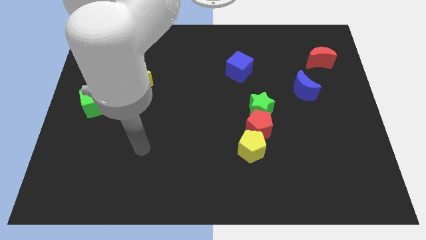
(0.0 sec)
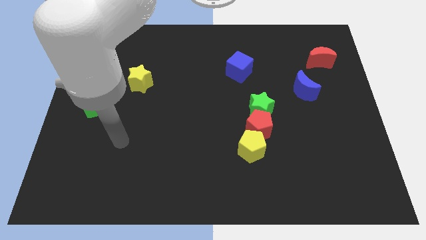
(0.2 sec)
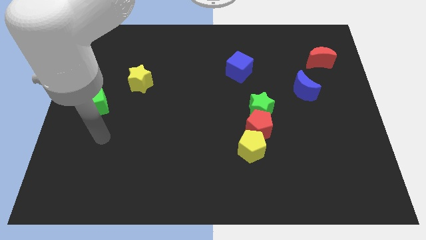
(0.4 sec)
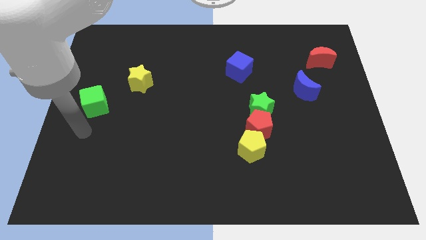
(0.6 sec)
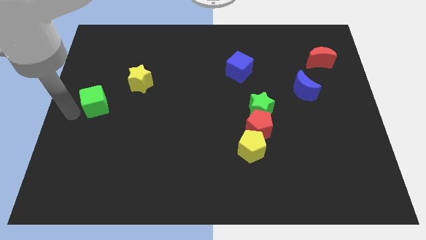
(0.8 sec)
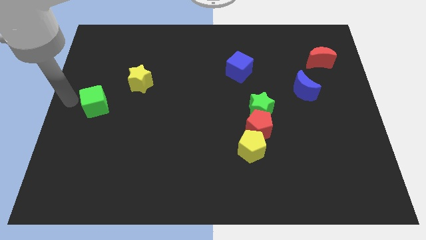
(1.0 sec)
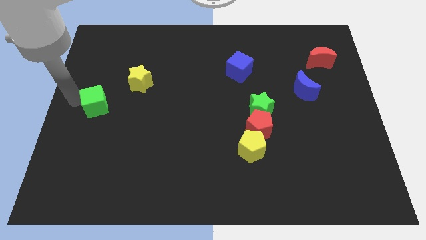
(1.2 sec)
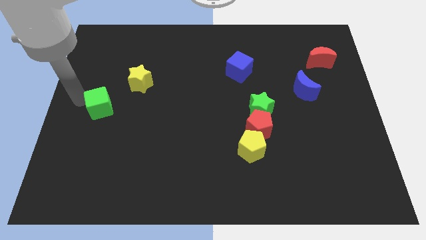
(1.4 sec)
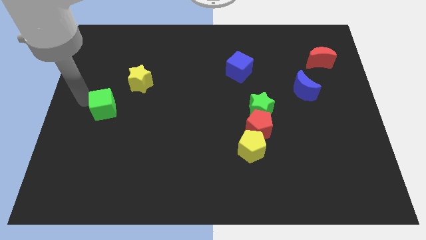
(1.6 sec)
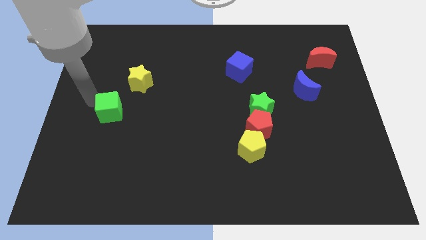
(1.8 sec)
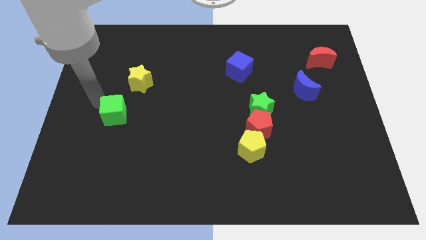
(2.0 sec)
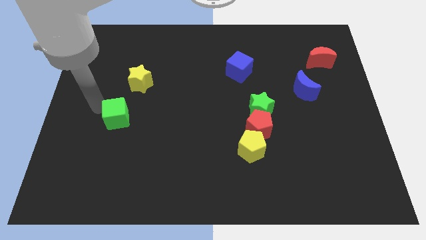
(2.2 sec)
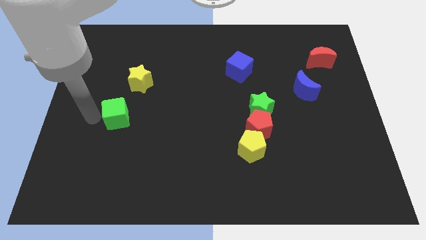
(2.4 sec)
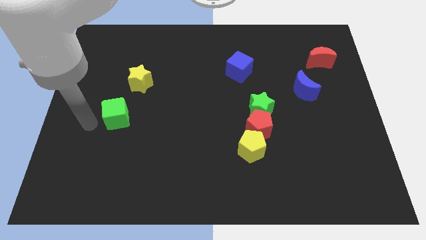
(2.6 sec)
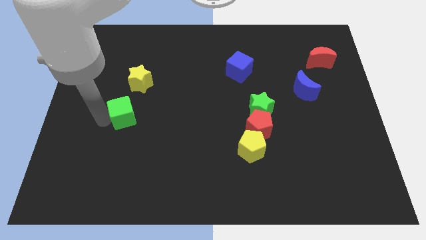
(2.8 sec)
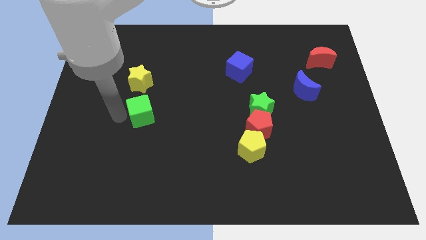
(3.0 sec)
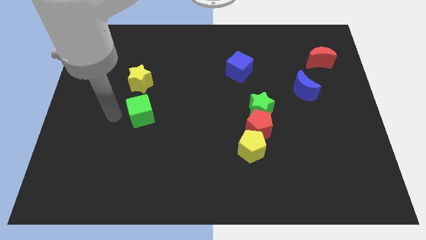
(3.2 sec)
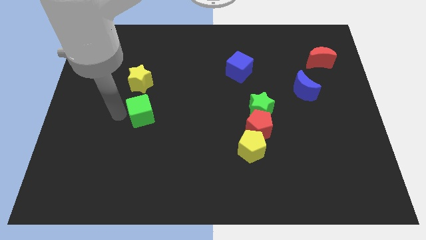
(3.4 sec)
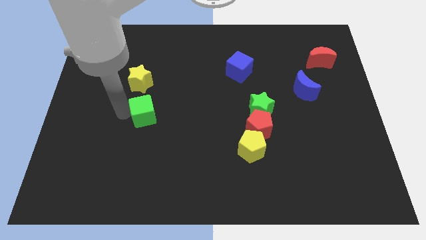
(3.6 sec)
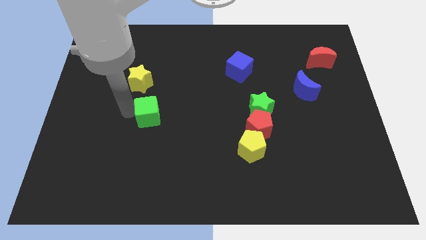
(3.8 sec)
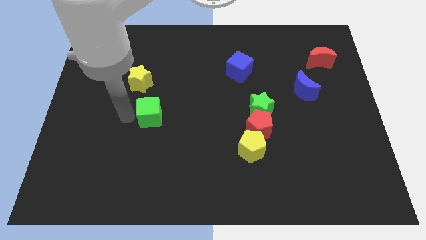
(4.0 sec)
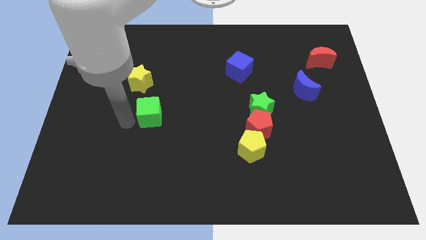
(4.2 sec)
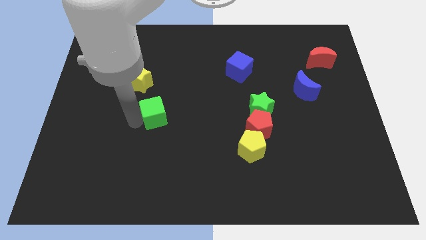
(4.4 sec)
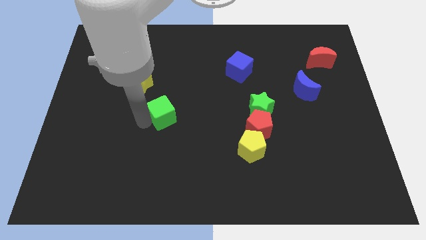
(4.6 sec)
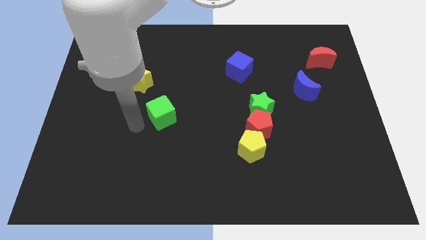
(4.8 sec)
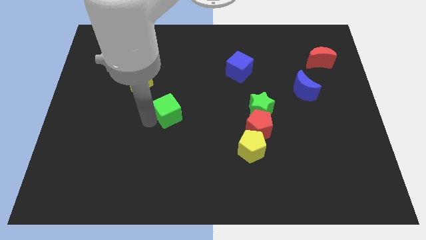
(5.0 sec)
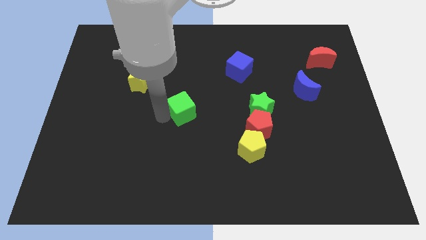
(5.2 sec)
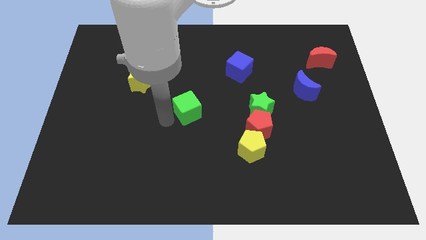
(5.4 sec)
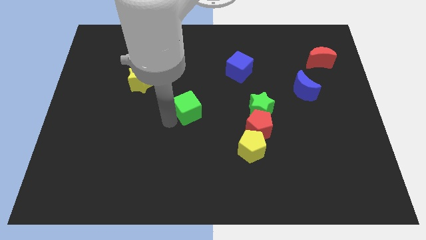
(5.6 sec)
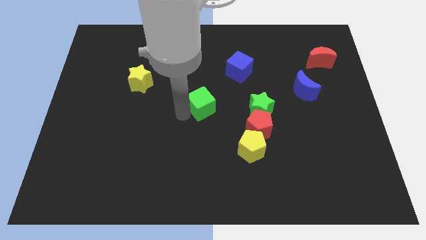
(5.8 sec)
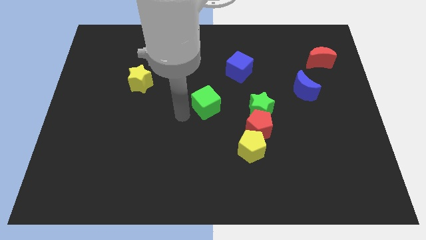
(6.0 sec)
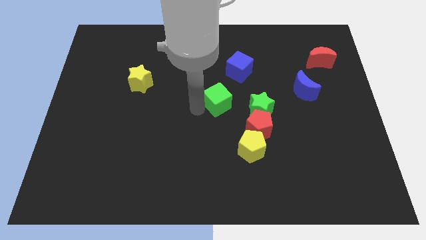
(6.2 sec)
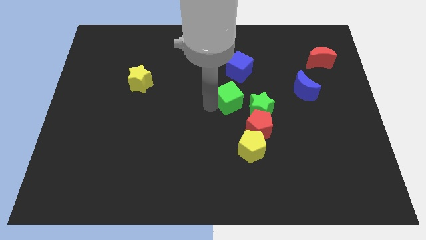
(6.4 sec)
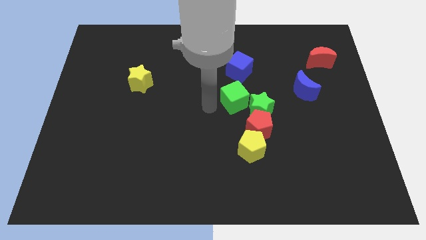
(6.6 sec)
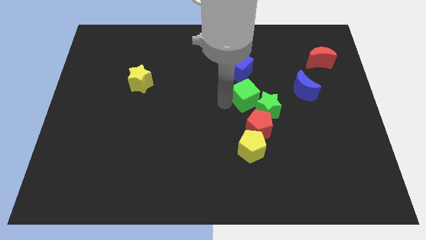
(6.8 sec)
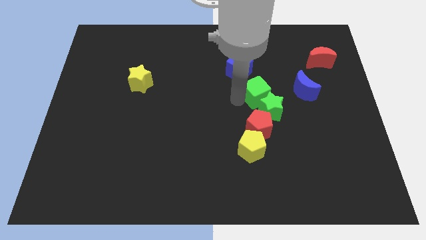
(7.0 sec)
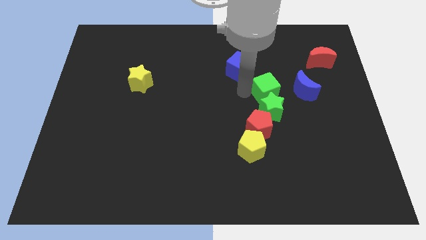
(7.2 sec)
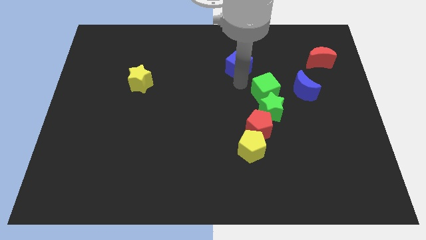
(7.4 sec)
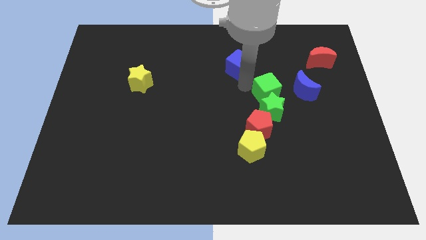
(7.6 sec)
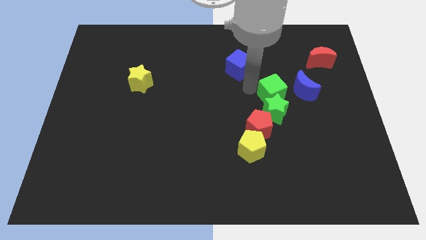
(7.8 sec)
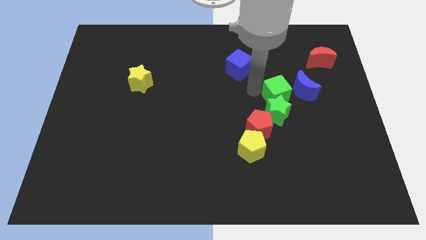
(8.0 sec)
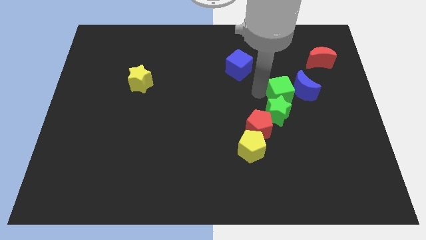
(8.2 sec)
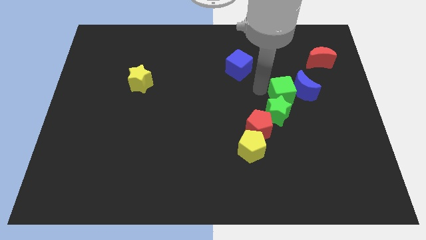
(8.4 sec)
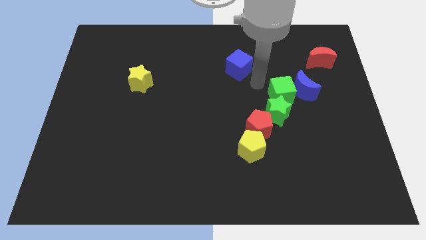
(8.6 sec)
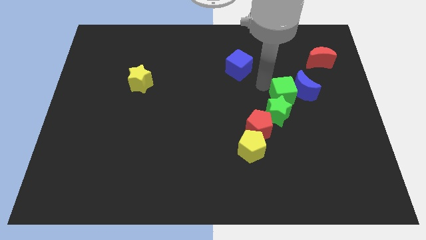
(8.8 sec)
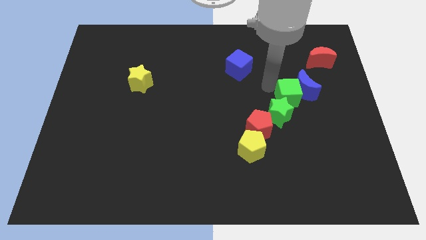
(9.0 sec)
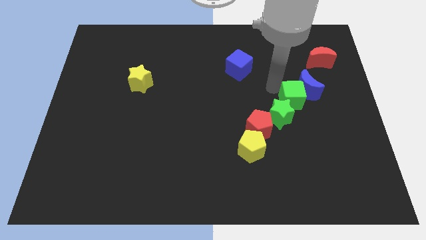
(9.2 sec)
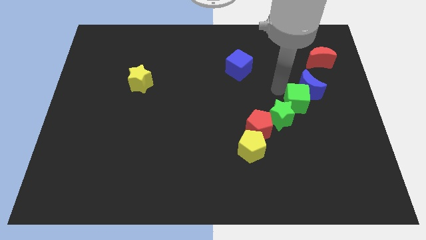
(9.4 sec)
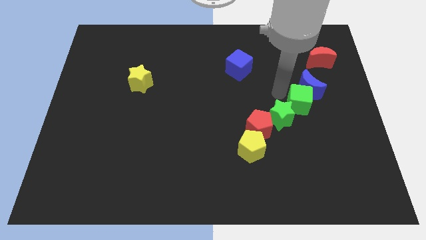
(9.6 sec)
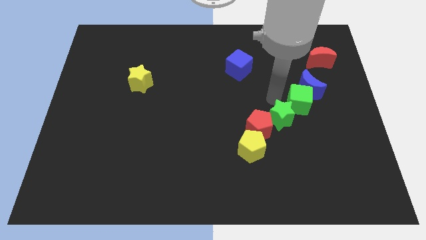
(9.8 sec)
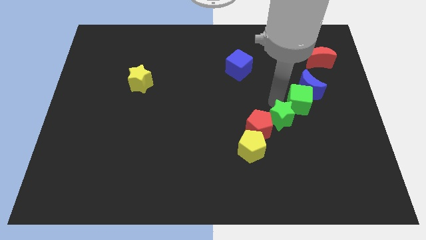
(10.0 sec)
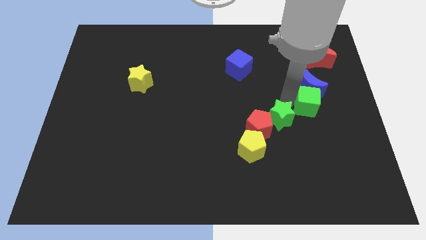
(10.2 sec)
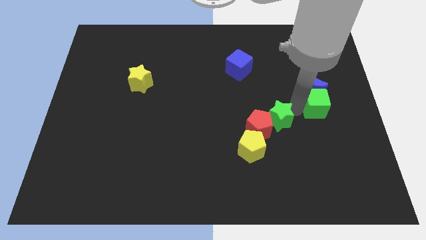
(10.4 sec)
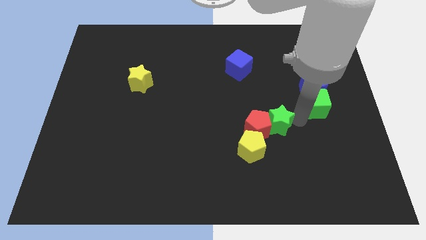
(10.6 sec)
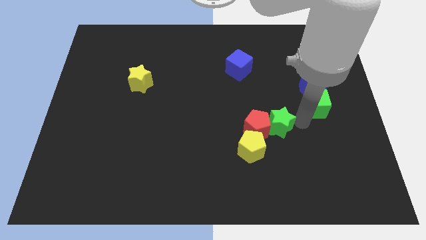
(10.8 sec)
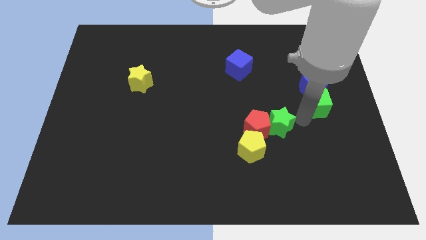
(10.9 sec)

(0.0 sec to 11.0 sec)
move the green cube to the bottom side of the red moon

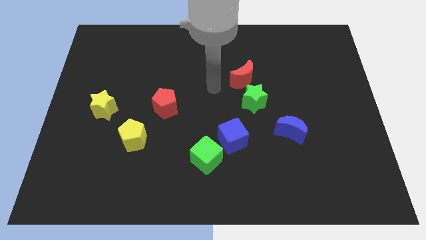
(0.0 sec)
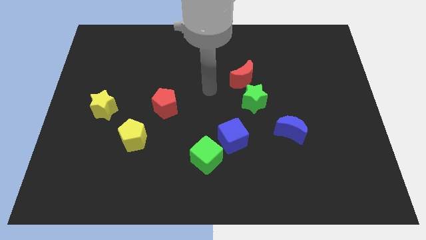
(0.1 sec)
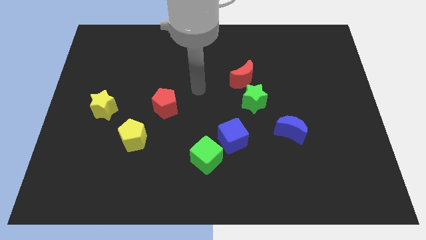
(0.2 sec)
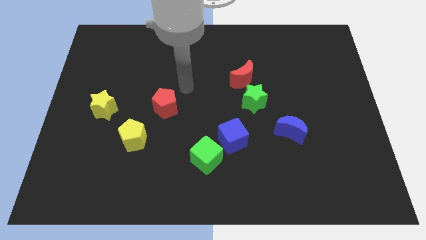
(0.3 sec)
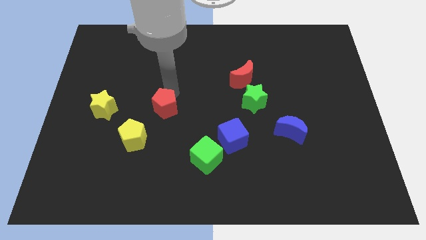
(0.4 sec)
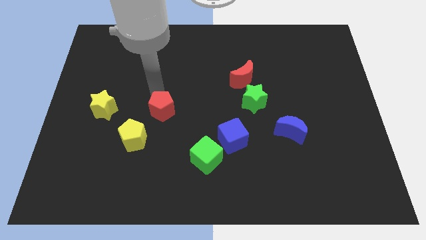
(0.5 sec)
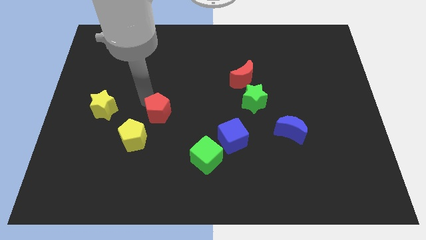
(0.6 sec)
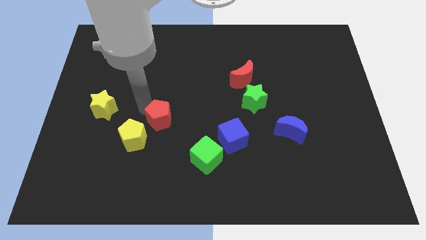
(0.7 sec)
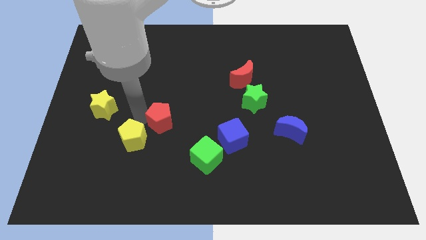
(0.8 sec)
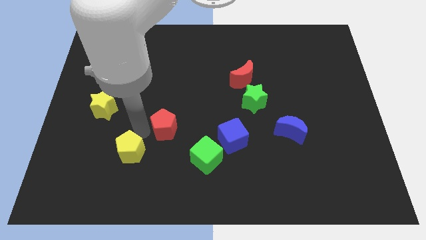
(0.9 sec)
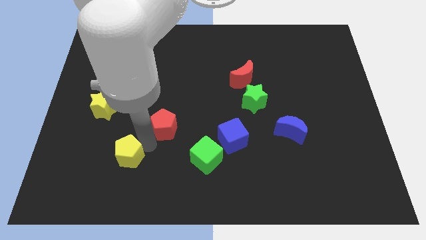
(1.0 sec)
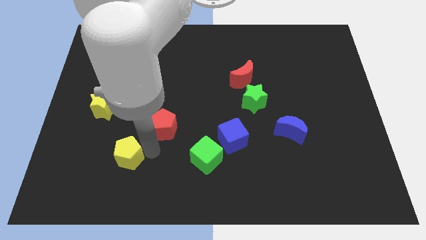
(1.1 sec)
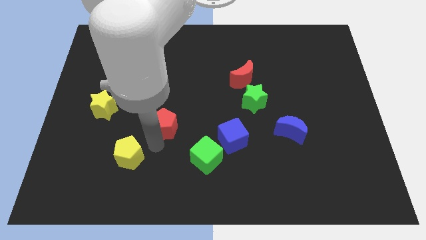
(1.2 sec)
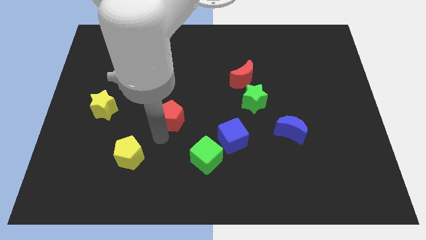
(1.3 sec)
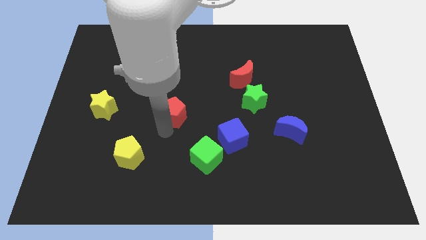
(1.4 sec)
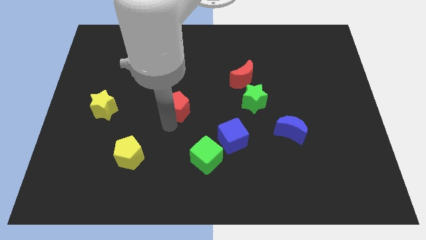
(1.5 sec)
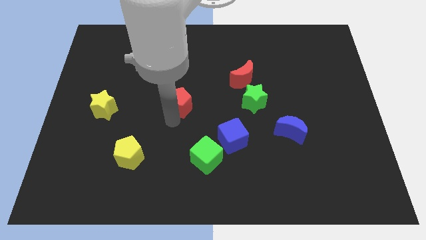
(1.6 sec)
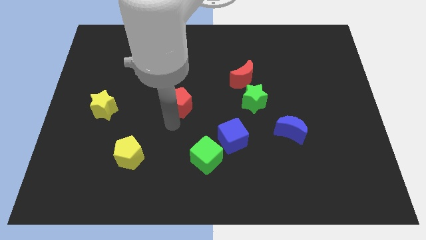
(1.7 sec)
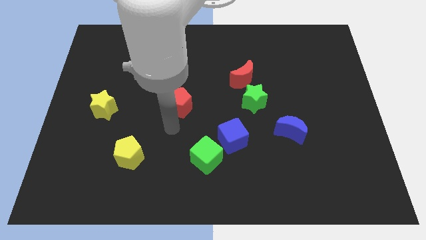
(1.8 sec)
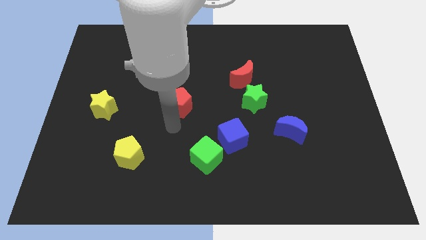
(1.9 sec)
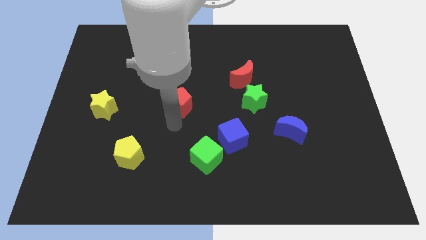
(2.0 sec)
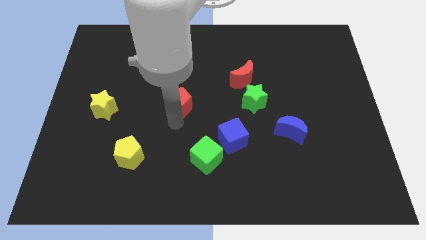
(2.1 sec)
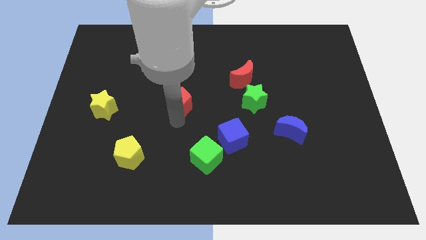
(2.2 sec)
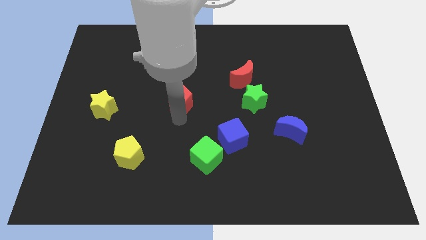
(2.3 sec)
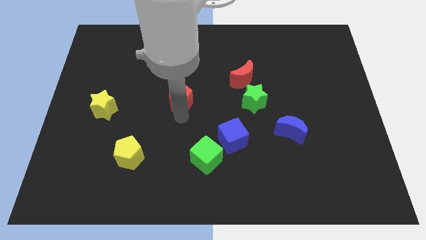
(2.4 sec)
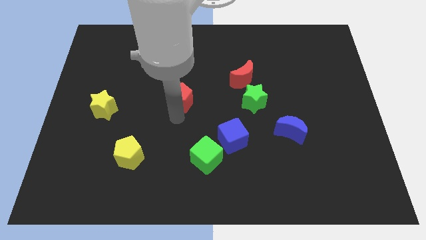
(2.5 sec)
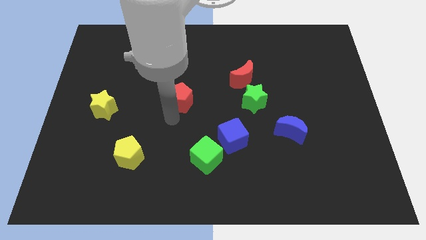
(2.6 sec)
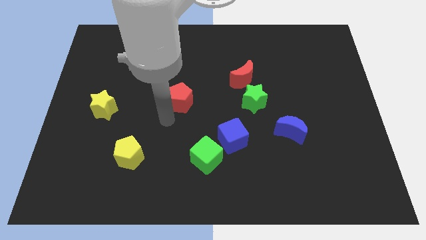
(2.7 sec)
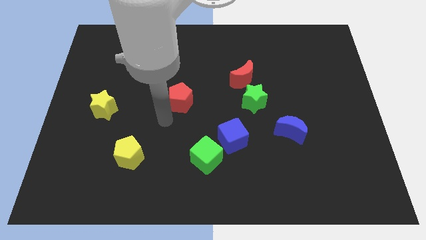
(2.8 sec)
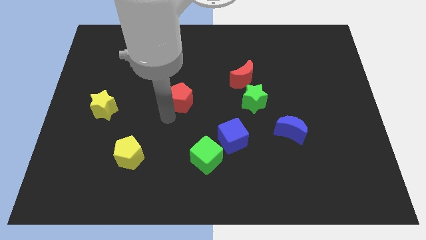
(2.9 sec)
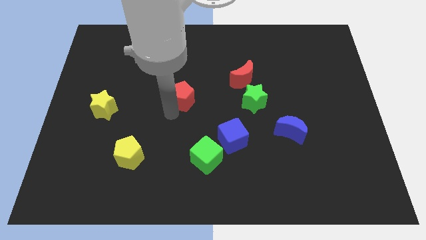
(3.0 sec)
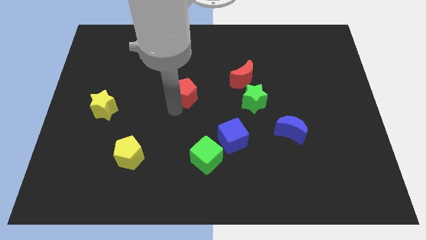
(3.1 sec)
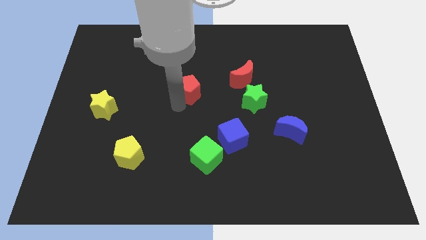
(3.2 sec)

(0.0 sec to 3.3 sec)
slide the red pentagon left of the red moon
